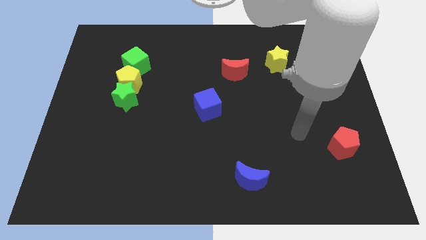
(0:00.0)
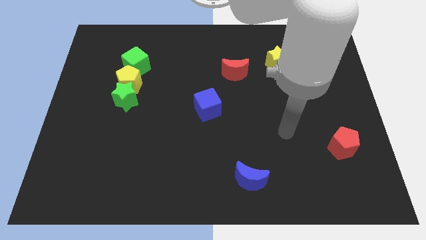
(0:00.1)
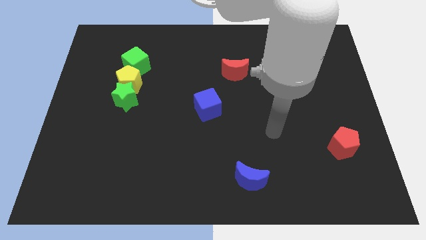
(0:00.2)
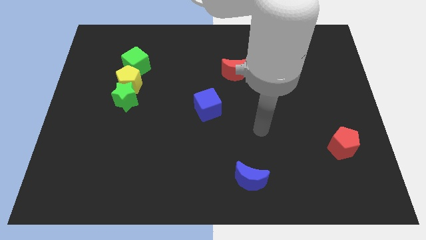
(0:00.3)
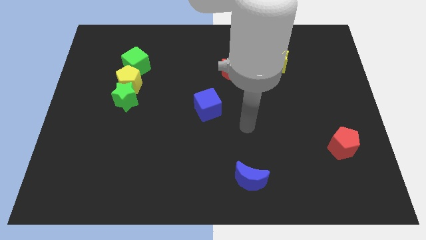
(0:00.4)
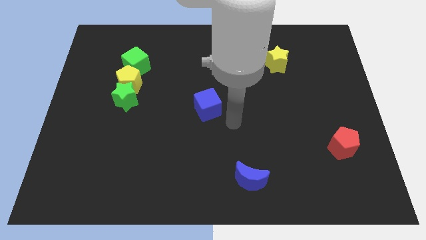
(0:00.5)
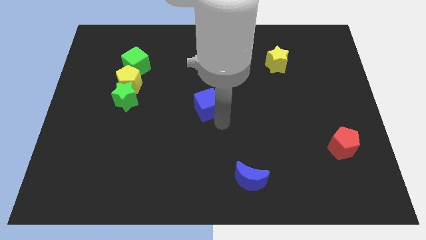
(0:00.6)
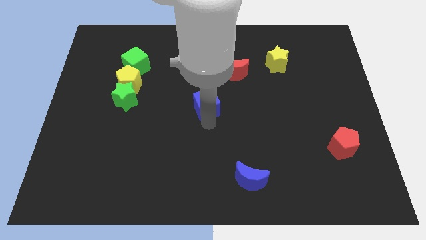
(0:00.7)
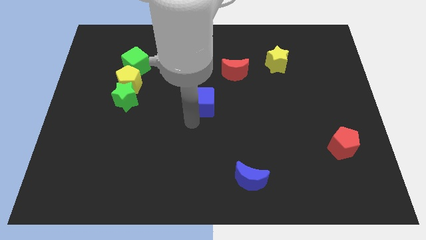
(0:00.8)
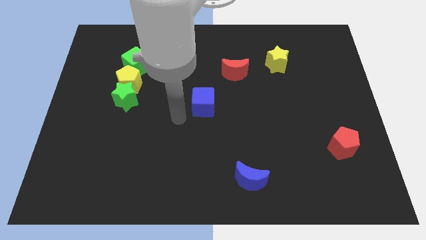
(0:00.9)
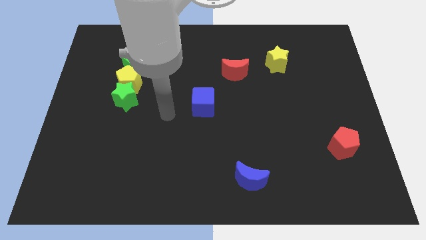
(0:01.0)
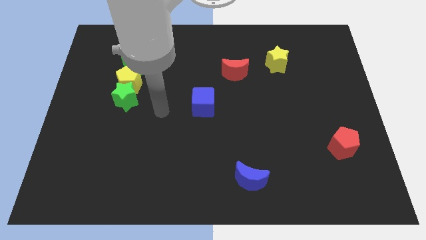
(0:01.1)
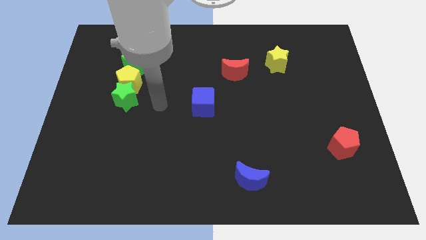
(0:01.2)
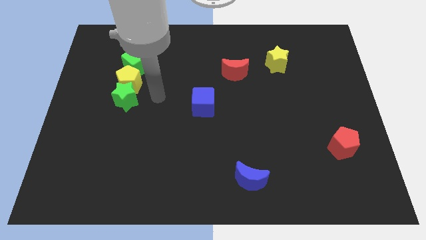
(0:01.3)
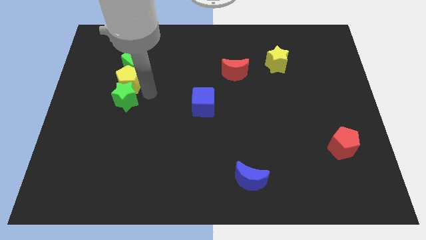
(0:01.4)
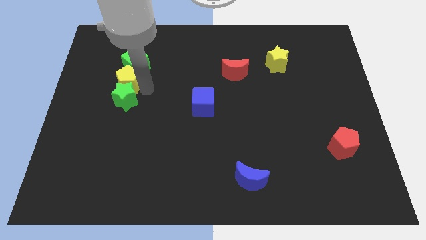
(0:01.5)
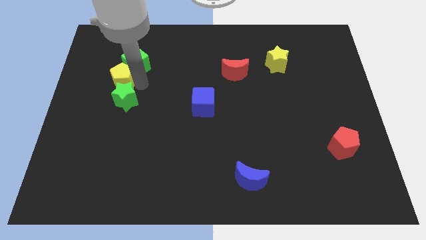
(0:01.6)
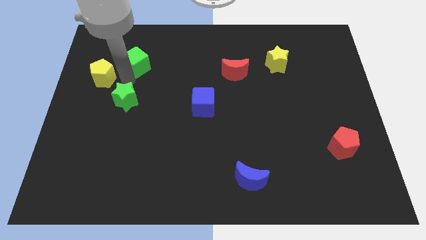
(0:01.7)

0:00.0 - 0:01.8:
move the green star away from the yellow pentagon

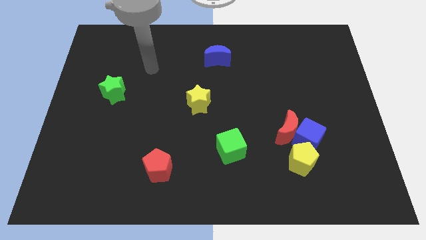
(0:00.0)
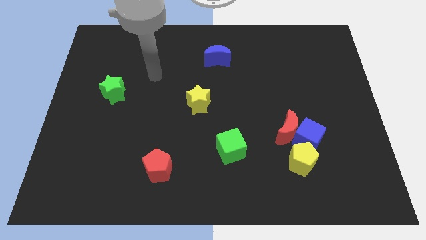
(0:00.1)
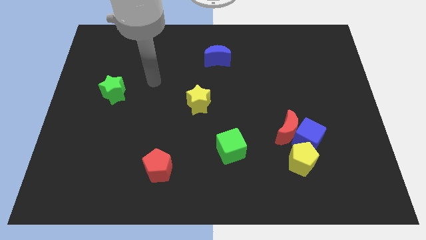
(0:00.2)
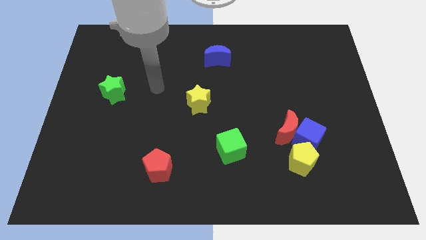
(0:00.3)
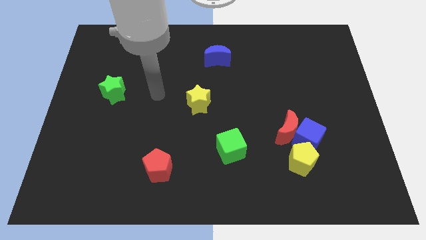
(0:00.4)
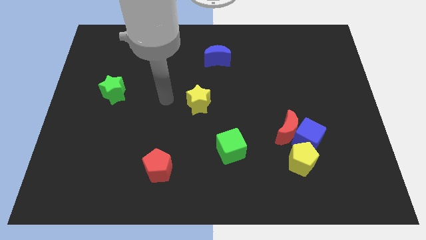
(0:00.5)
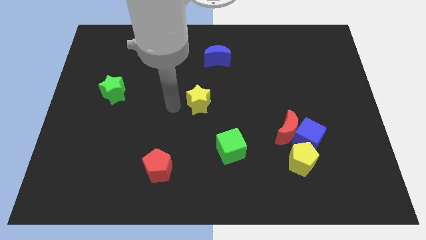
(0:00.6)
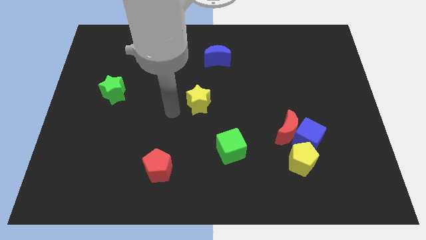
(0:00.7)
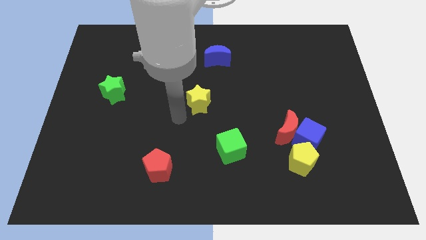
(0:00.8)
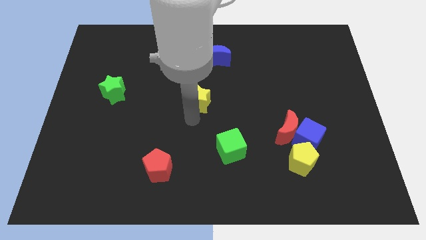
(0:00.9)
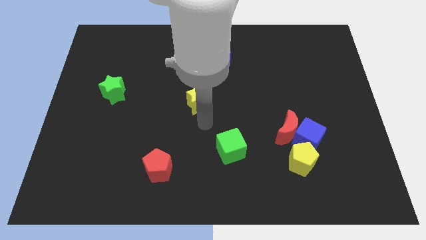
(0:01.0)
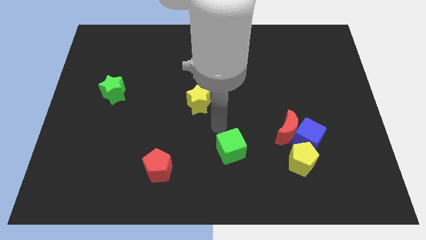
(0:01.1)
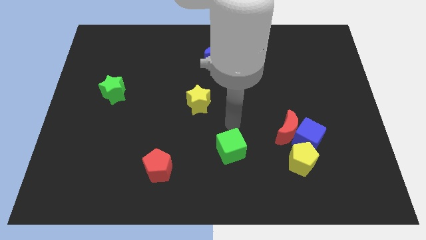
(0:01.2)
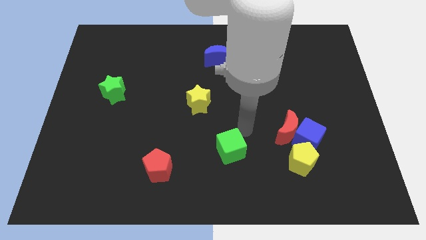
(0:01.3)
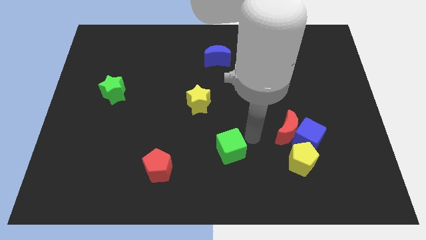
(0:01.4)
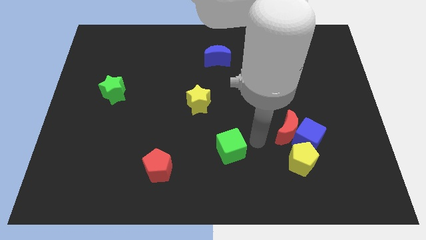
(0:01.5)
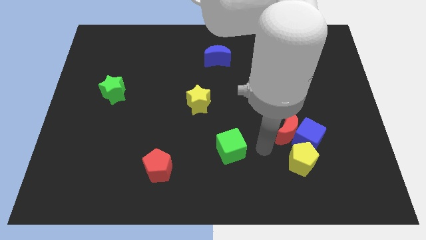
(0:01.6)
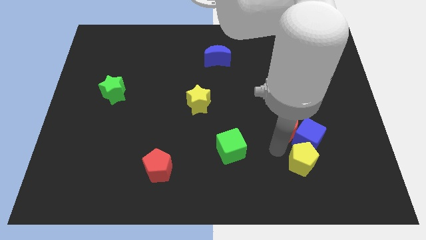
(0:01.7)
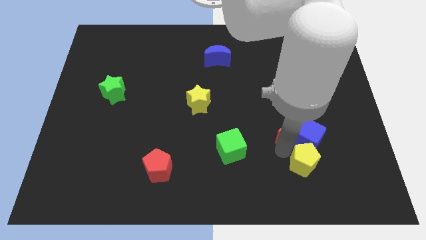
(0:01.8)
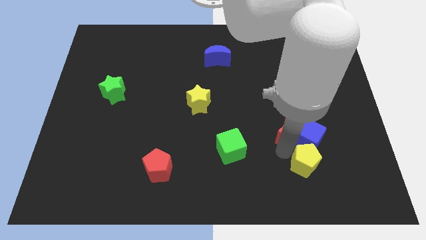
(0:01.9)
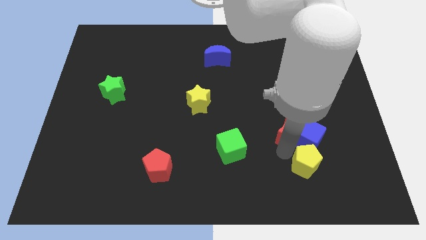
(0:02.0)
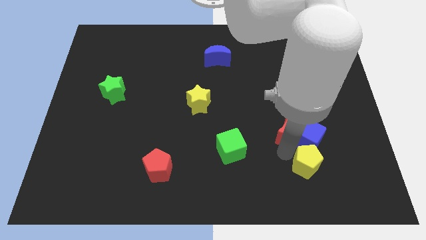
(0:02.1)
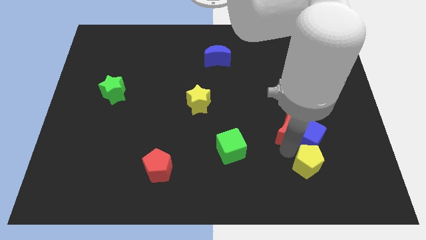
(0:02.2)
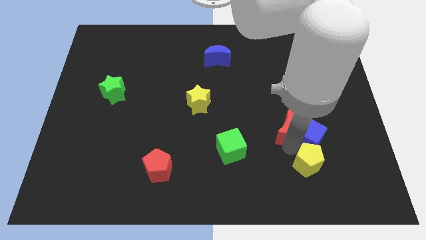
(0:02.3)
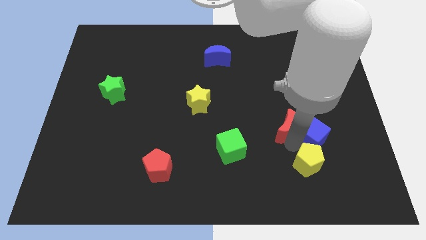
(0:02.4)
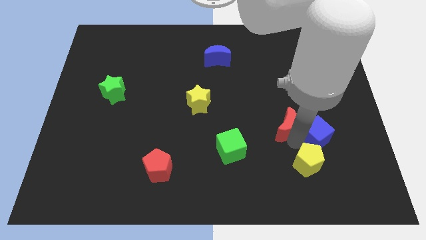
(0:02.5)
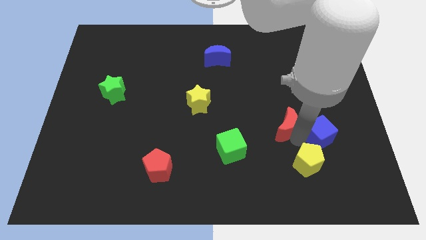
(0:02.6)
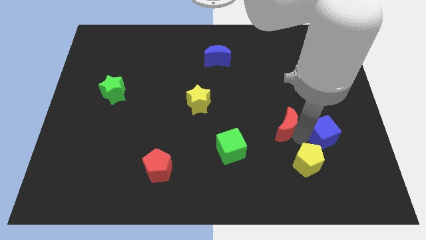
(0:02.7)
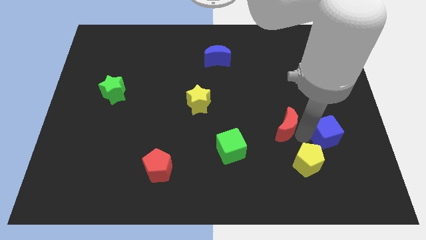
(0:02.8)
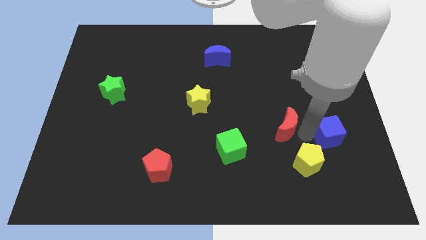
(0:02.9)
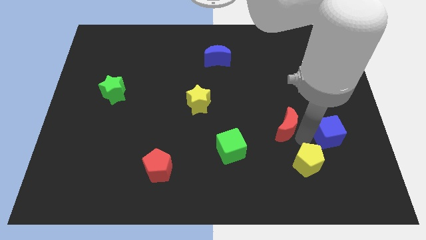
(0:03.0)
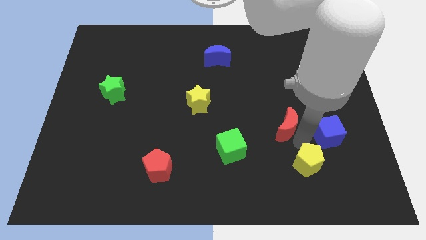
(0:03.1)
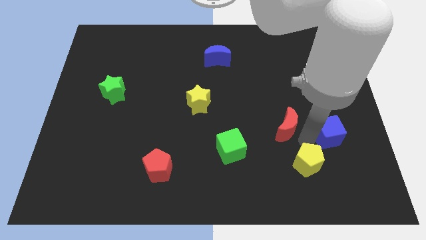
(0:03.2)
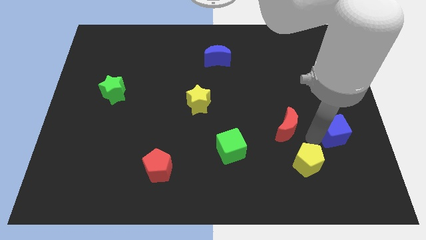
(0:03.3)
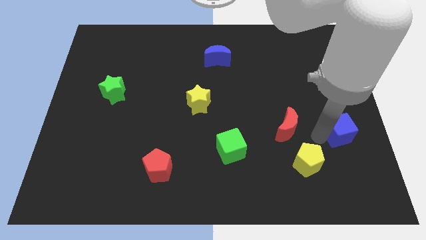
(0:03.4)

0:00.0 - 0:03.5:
separate the blue cube from the red moon and yellow pentagon

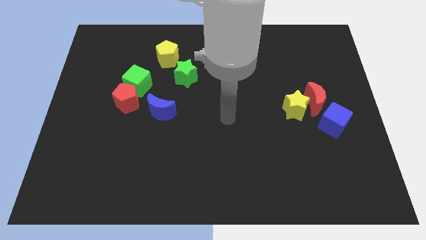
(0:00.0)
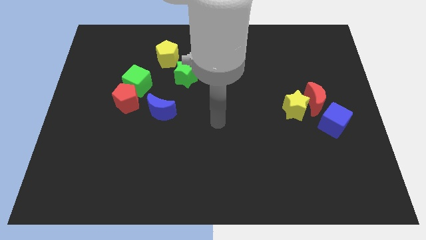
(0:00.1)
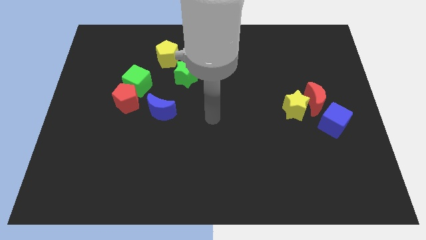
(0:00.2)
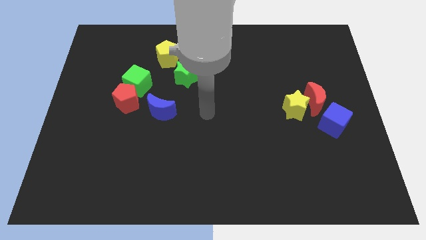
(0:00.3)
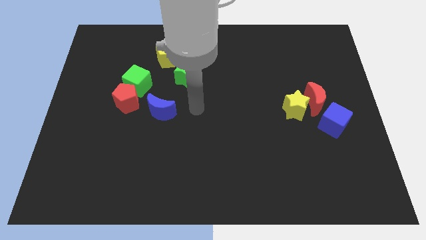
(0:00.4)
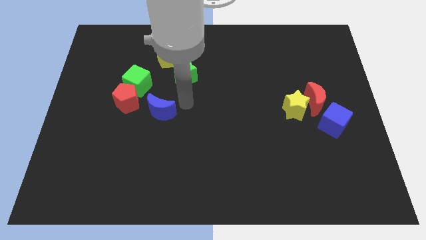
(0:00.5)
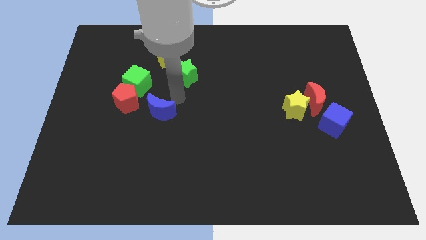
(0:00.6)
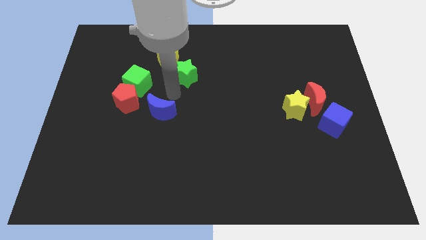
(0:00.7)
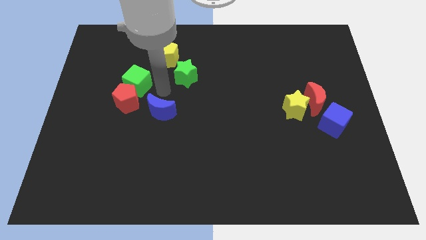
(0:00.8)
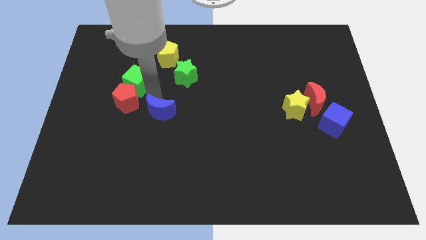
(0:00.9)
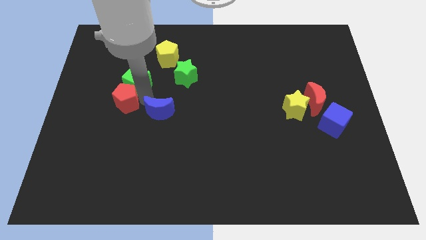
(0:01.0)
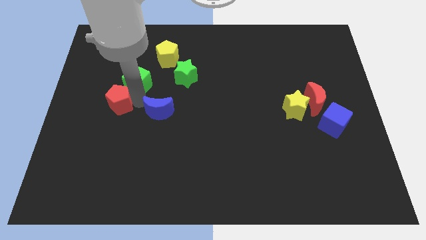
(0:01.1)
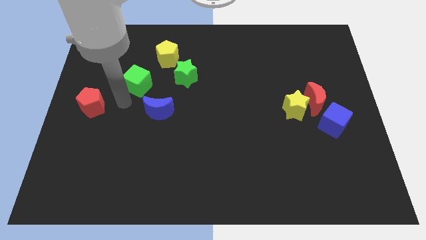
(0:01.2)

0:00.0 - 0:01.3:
move the green cube away from the red pentagon

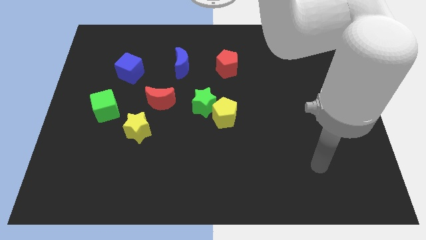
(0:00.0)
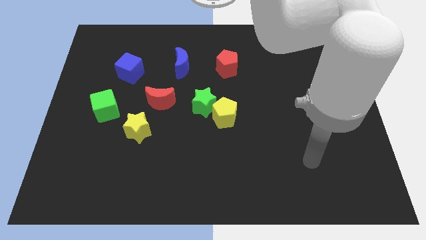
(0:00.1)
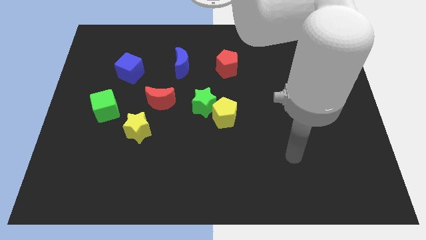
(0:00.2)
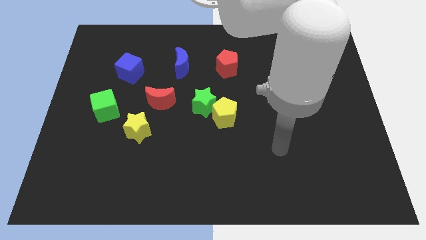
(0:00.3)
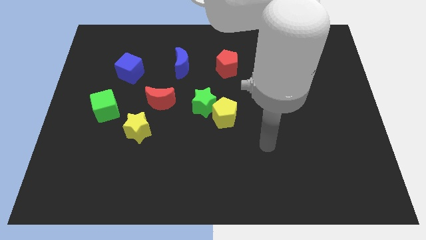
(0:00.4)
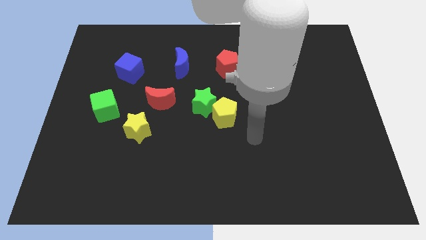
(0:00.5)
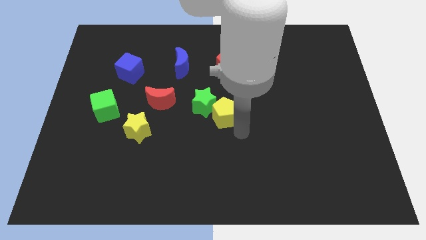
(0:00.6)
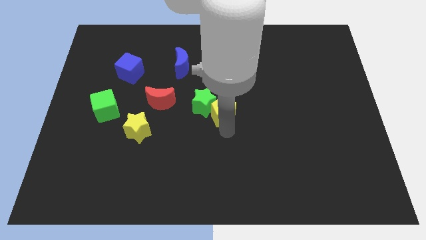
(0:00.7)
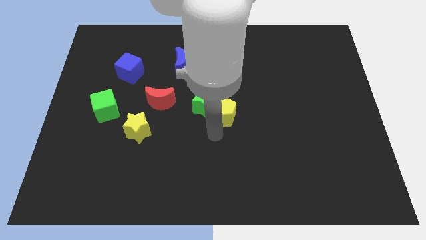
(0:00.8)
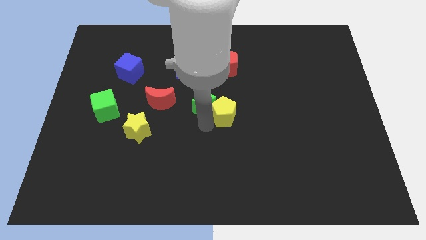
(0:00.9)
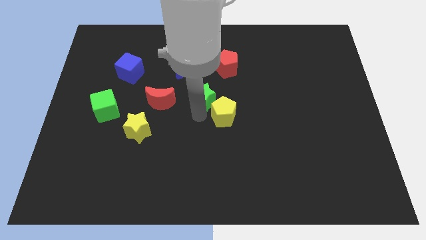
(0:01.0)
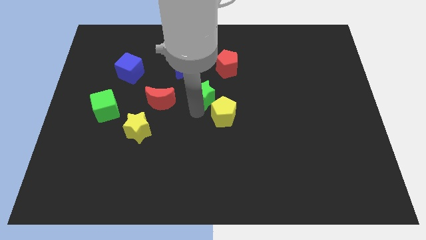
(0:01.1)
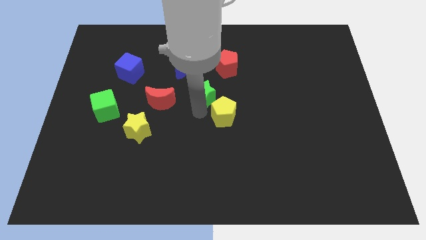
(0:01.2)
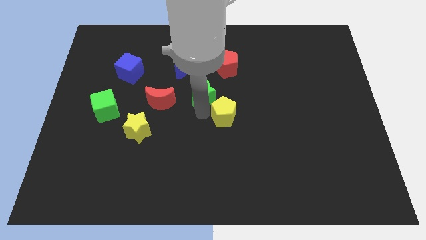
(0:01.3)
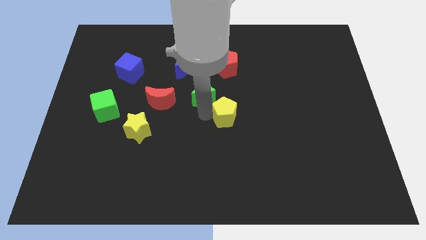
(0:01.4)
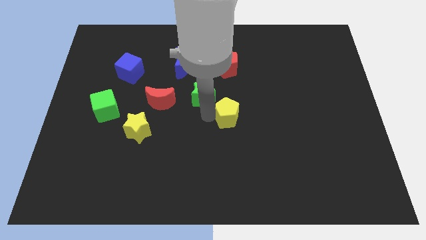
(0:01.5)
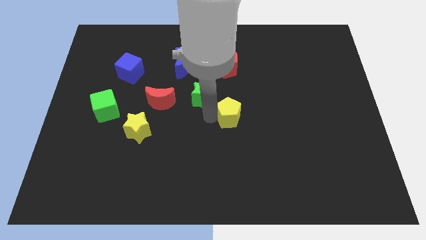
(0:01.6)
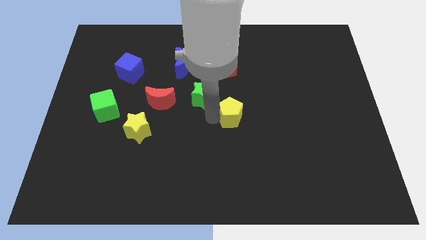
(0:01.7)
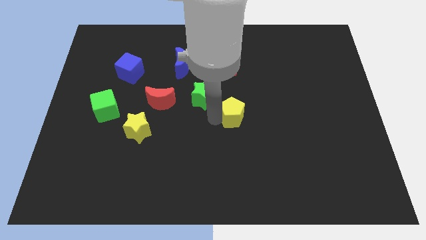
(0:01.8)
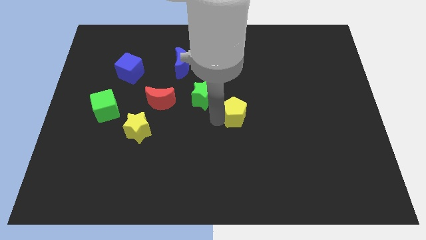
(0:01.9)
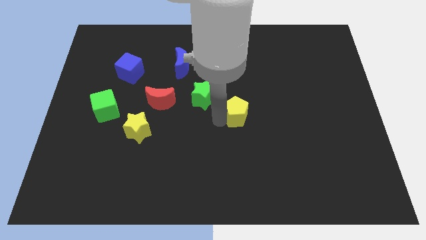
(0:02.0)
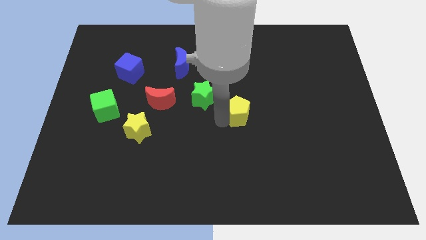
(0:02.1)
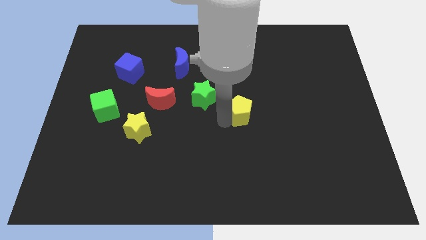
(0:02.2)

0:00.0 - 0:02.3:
pull the yellow pentagon apart from the green star

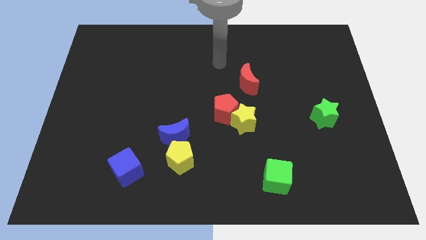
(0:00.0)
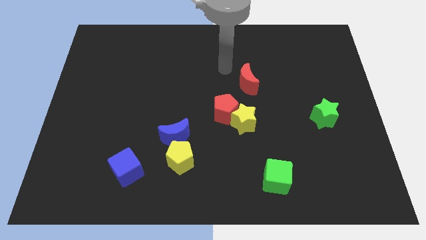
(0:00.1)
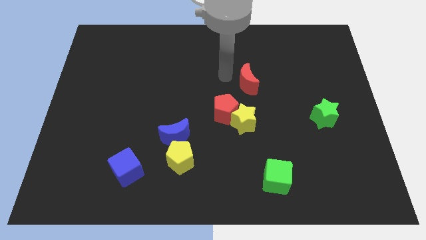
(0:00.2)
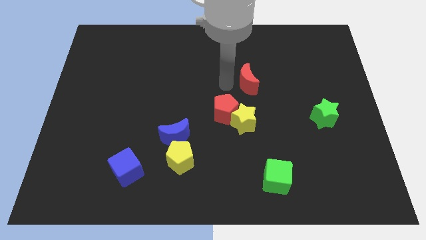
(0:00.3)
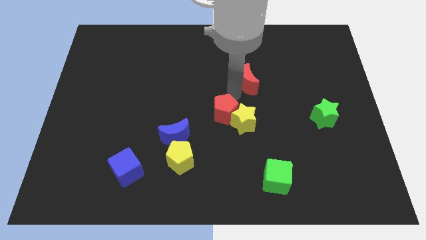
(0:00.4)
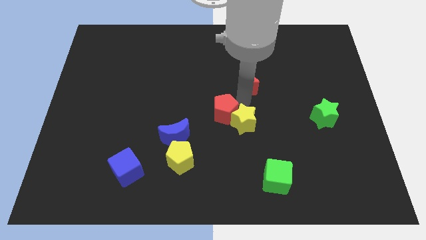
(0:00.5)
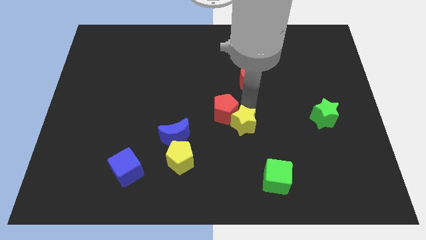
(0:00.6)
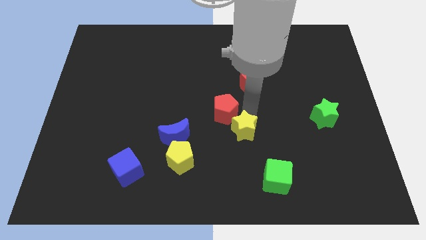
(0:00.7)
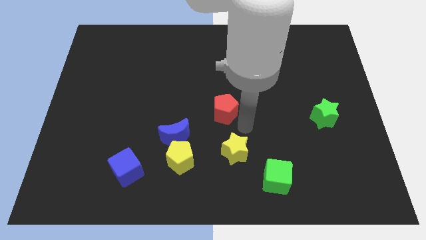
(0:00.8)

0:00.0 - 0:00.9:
separate the red pentagon from the yellow star
